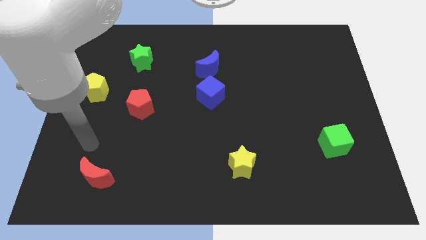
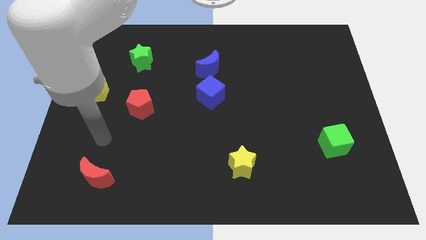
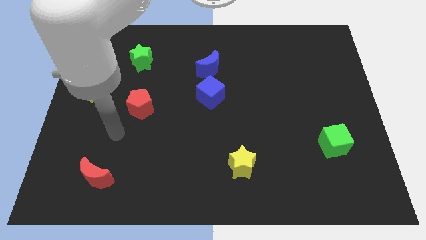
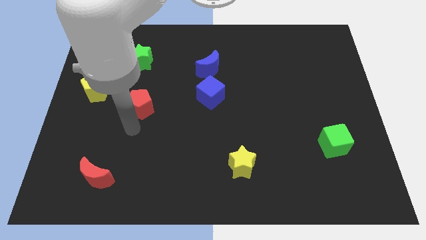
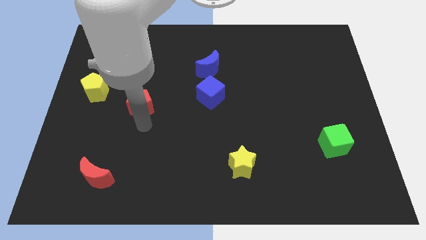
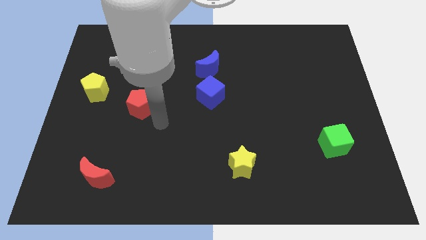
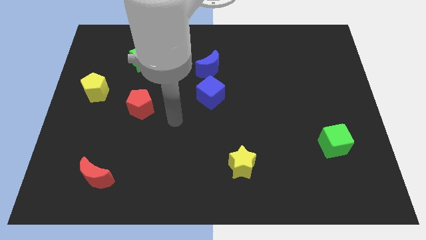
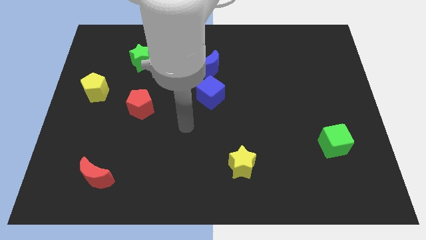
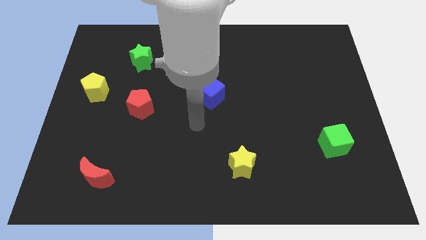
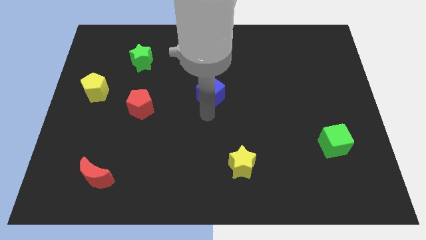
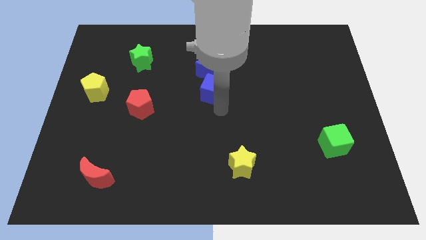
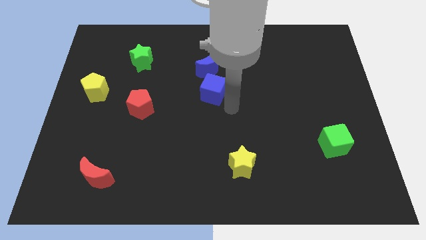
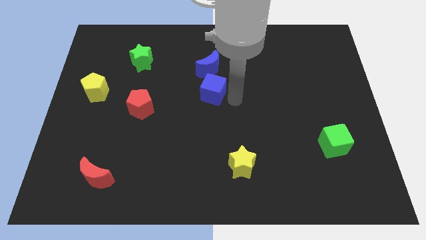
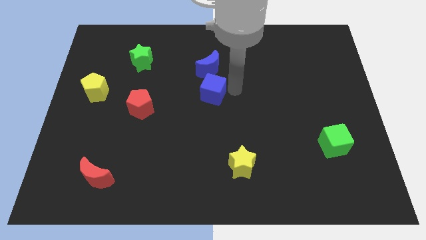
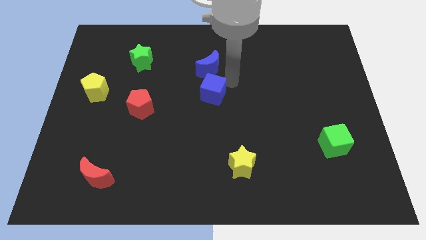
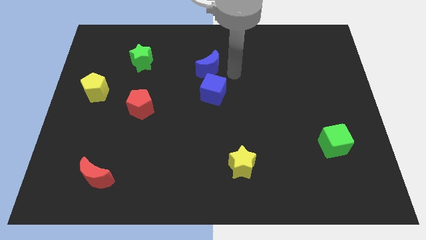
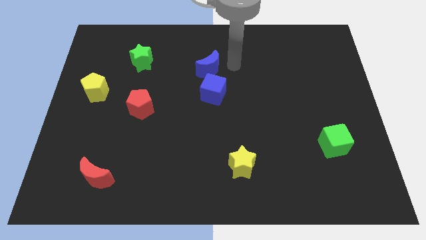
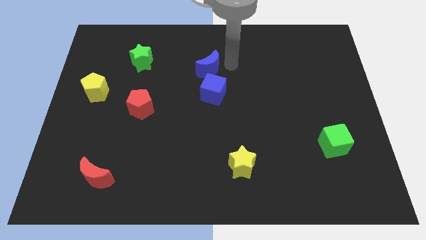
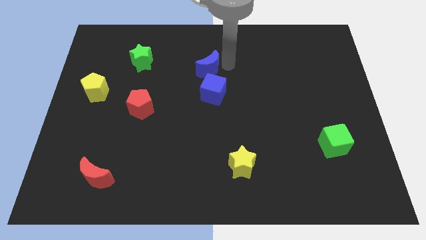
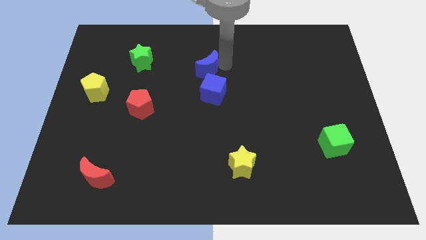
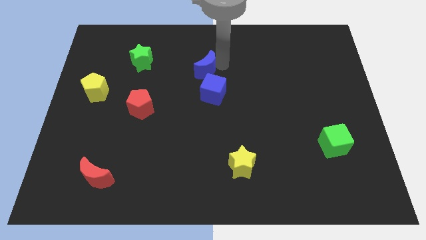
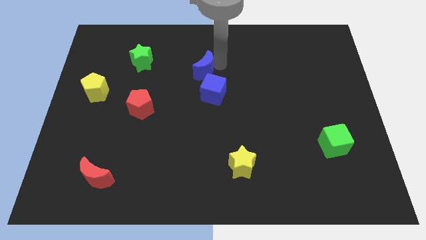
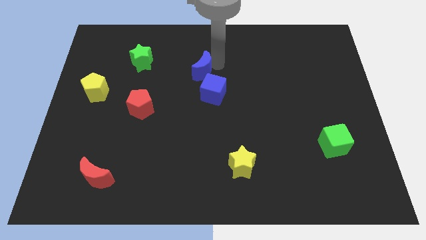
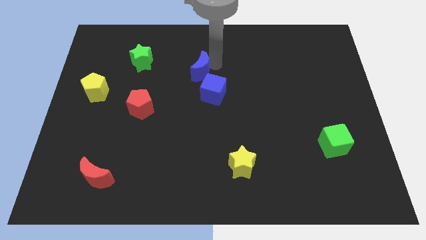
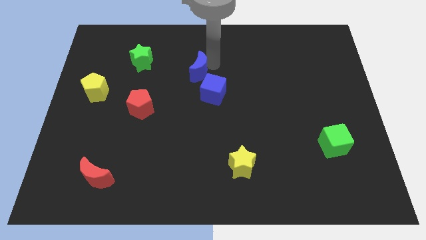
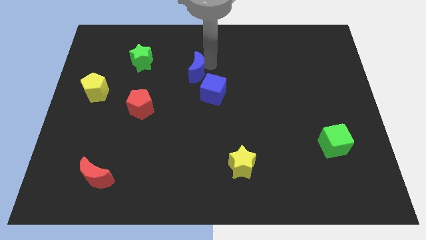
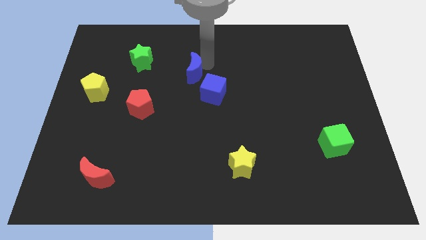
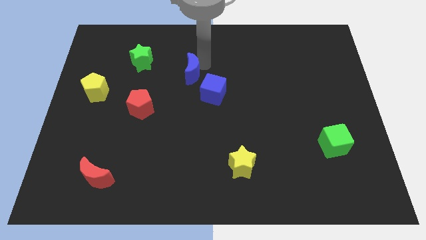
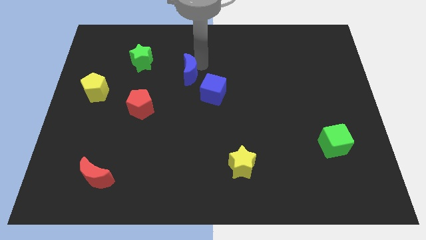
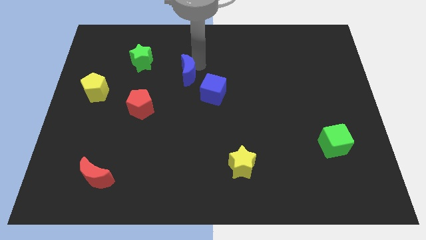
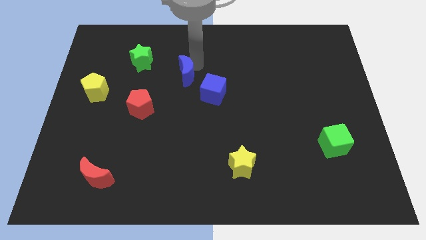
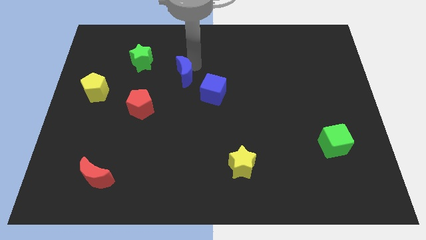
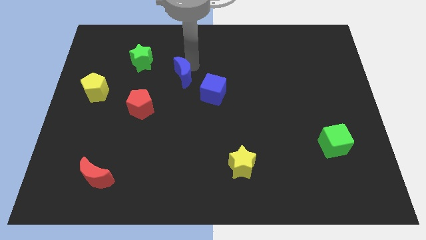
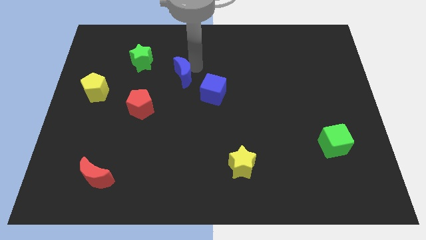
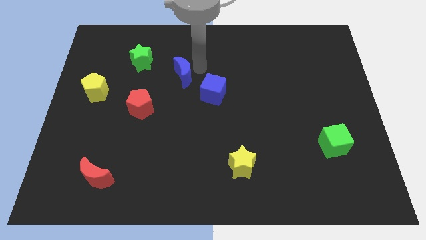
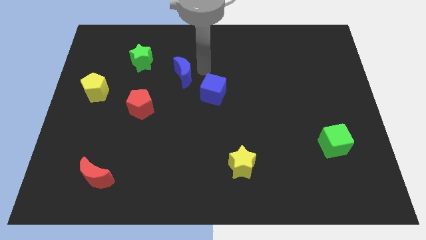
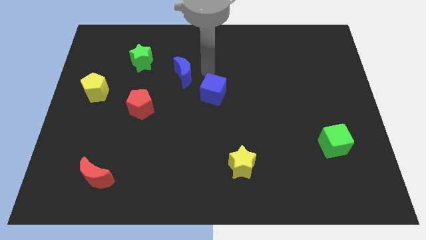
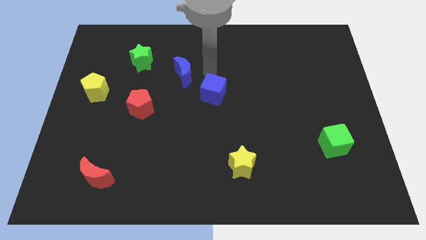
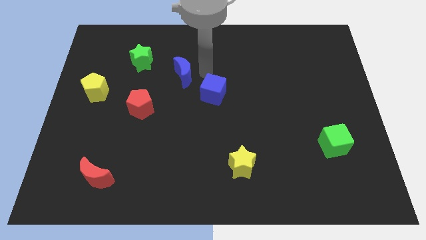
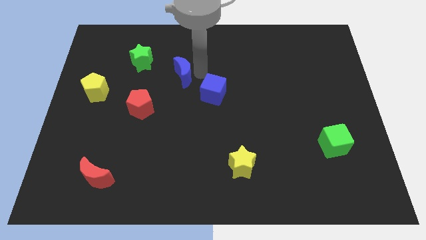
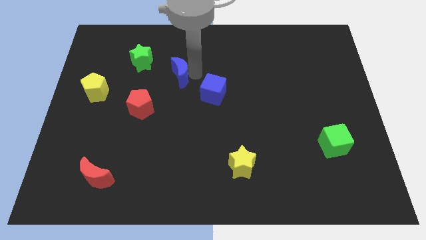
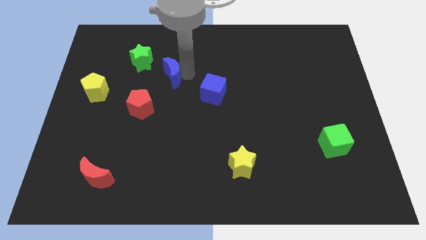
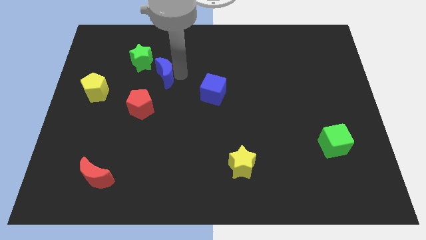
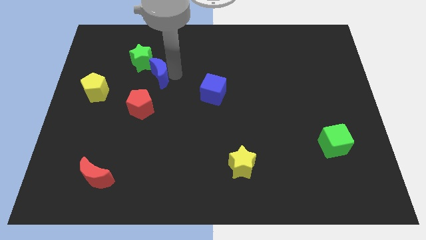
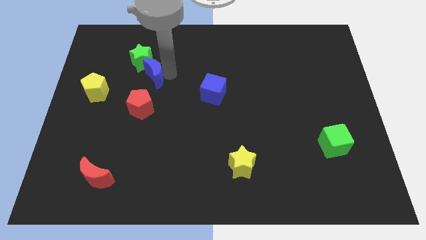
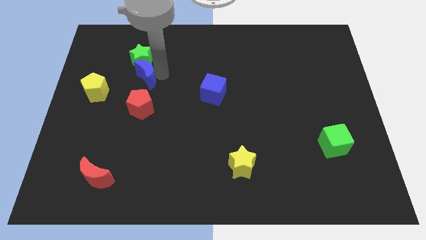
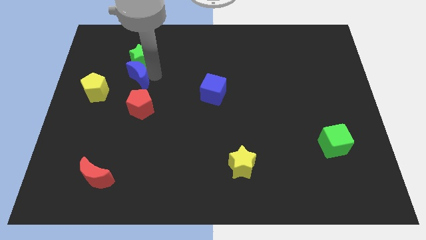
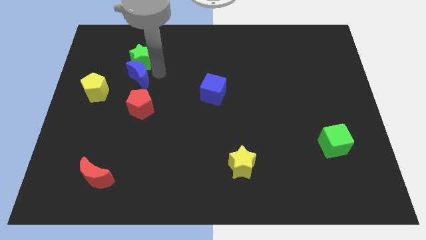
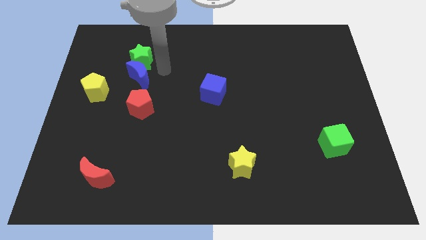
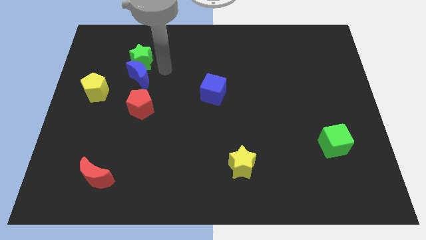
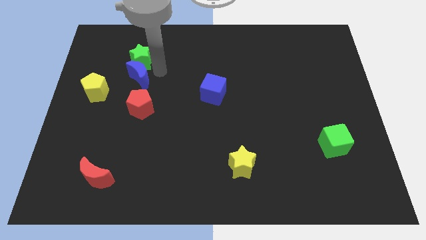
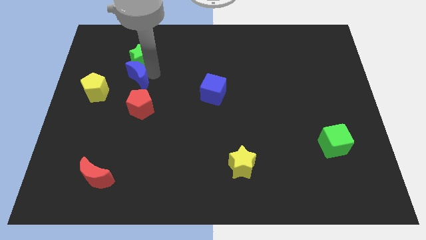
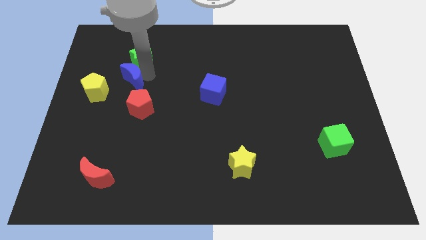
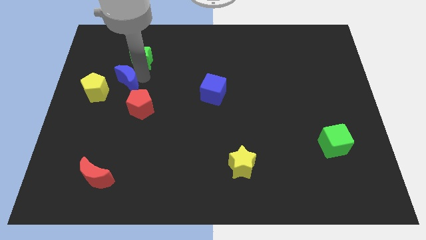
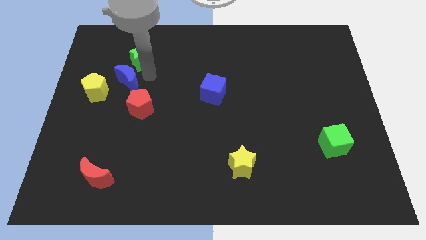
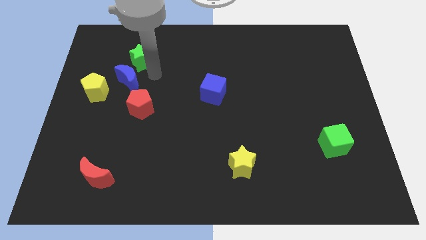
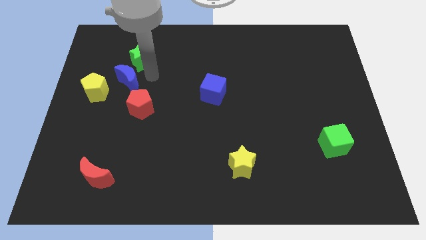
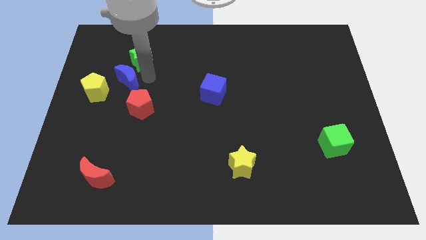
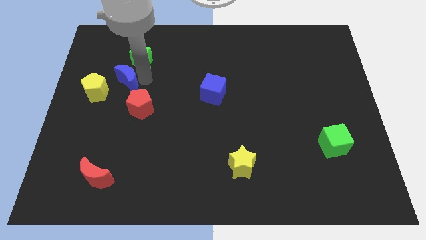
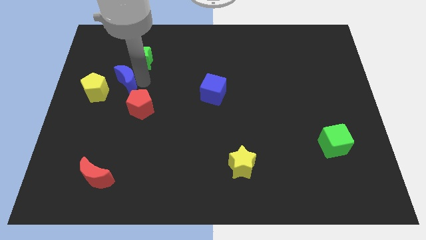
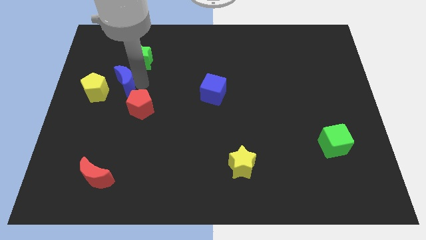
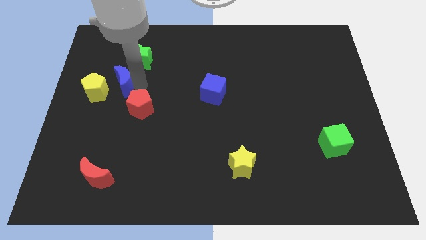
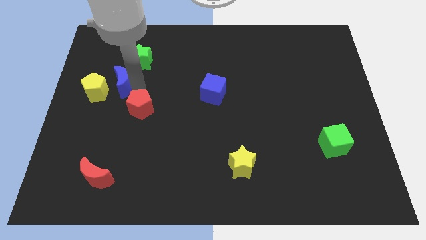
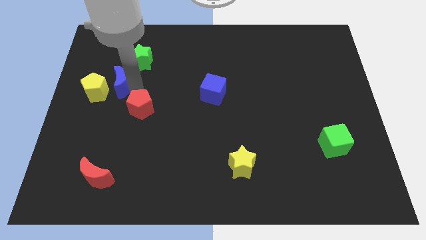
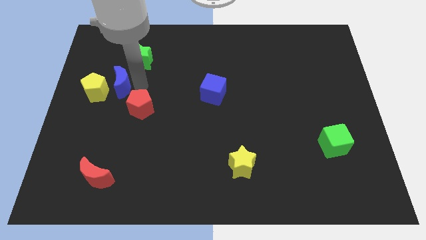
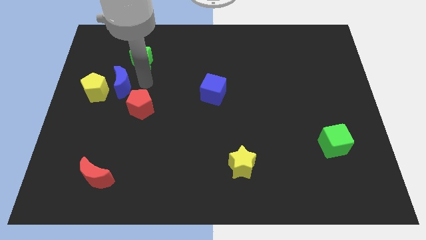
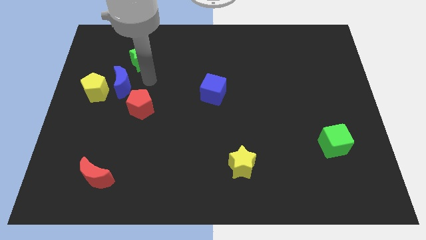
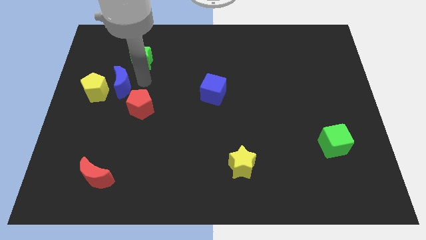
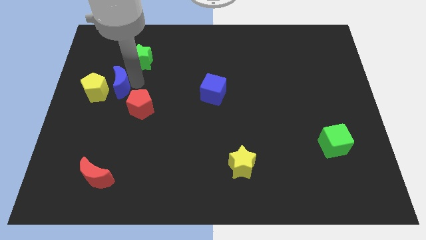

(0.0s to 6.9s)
slide the blue moon towards the yellow pentagon

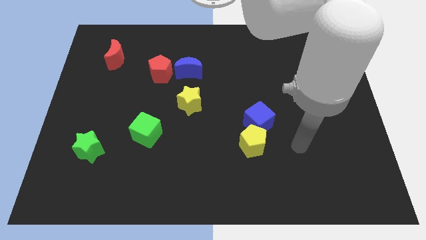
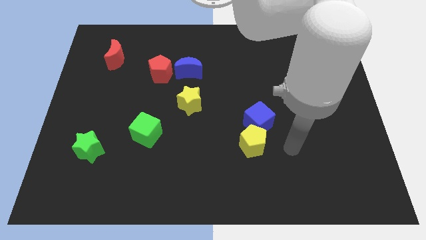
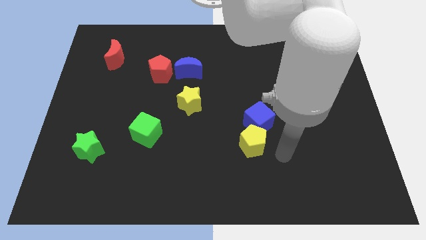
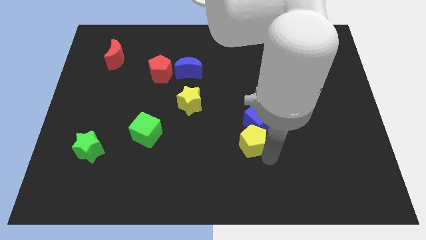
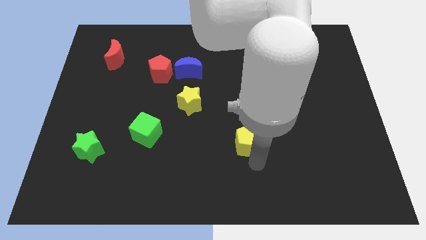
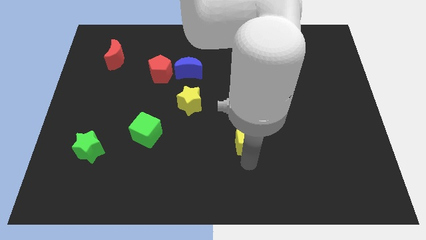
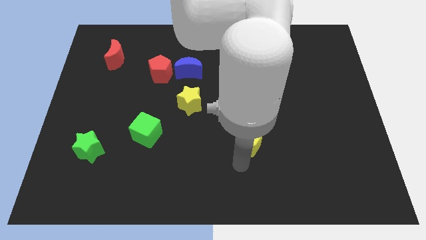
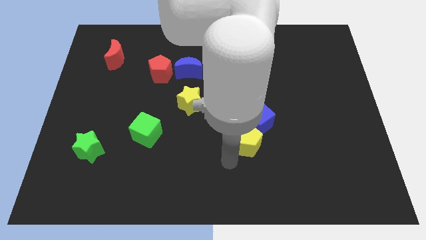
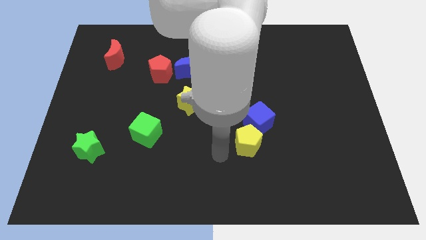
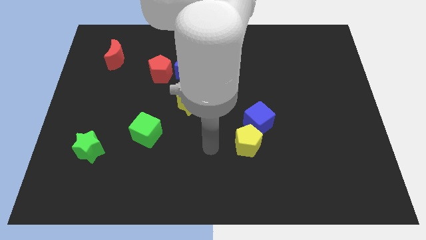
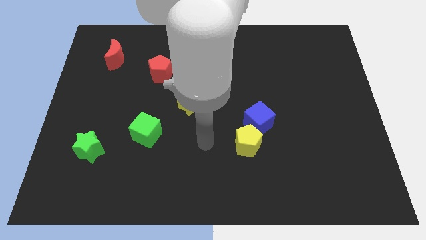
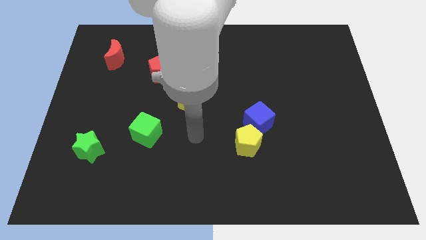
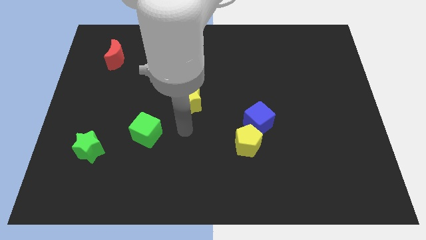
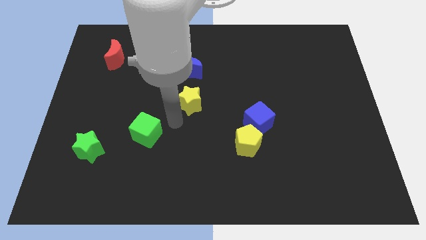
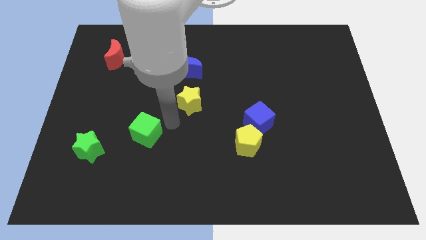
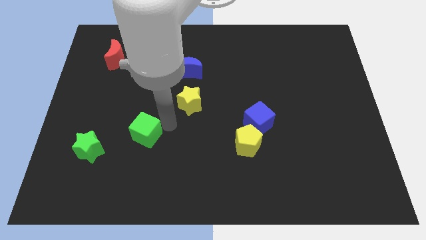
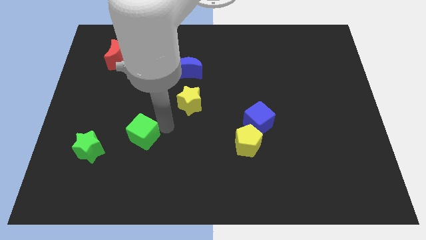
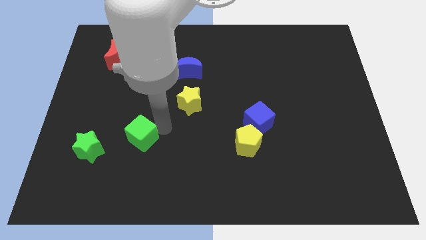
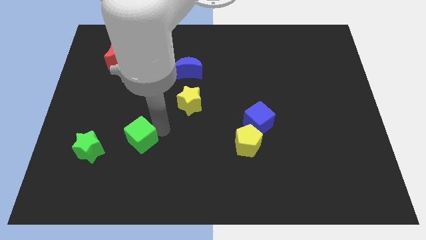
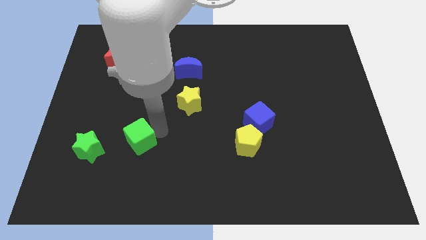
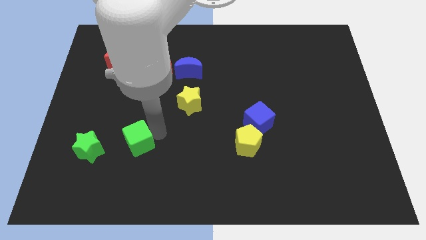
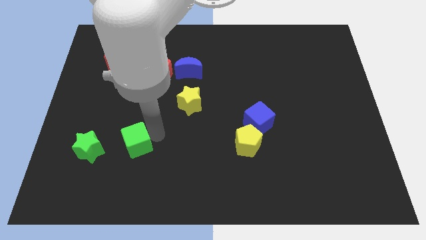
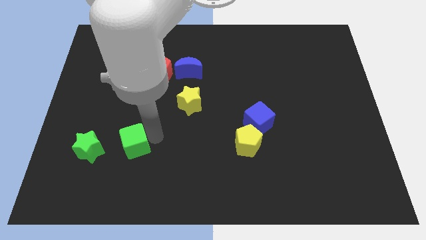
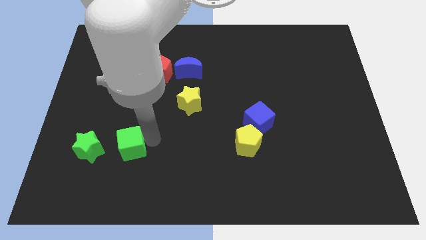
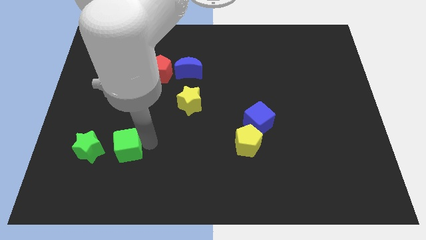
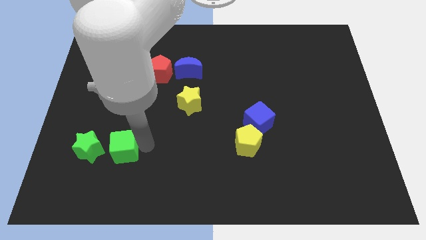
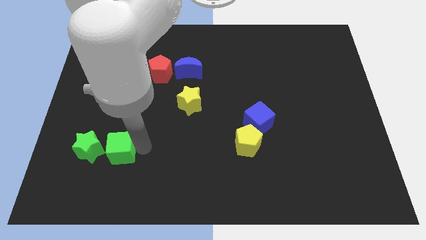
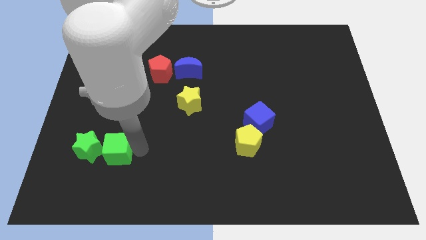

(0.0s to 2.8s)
put the green cube towards the green star
